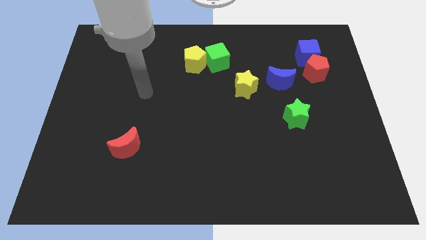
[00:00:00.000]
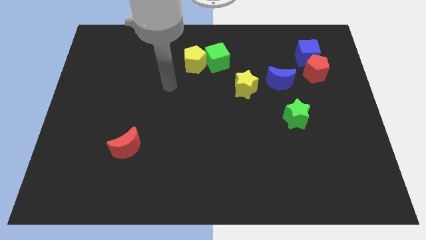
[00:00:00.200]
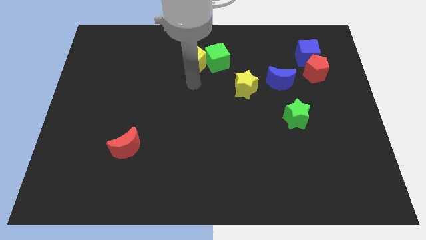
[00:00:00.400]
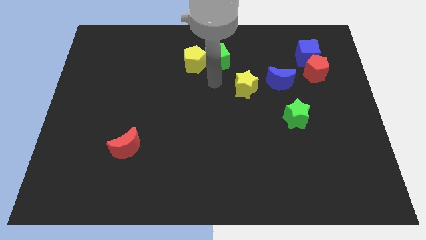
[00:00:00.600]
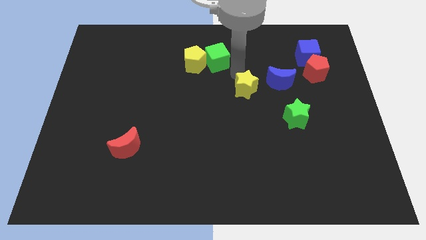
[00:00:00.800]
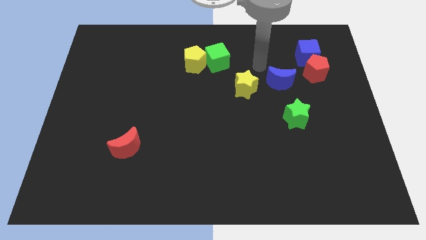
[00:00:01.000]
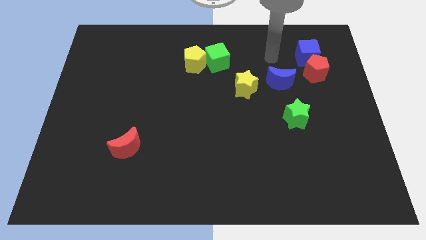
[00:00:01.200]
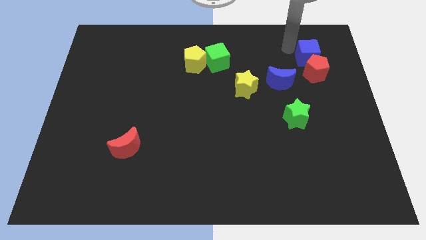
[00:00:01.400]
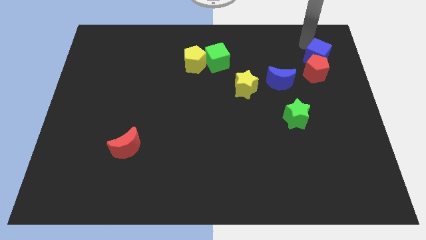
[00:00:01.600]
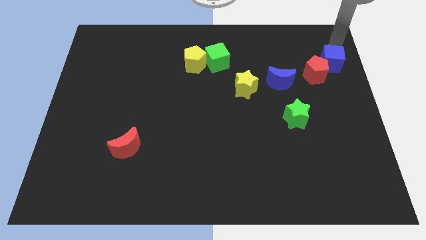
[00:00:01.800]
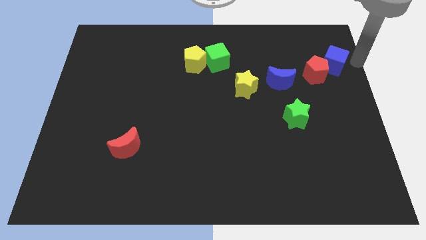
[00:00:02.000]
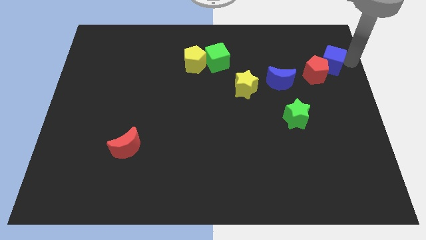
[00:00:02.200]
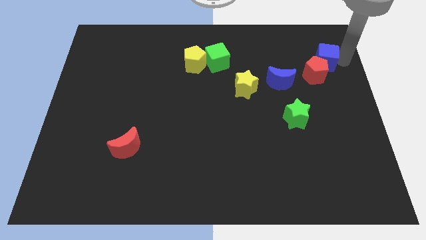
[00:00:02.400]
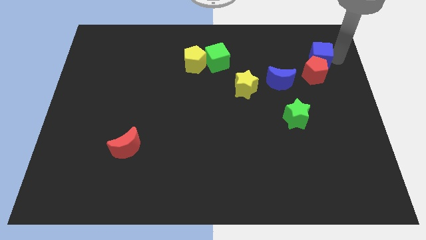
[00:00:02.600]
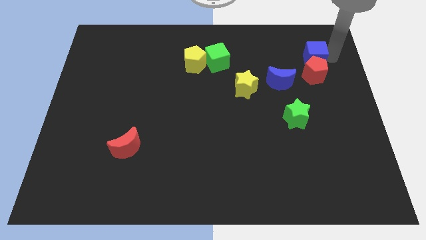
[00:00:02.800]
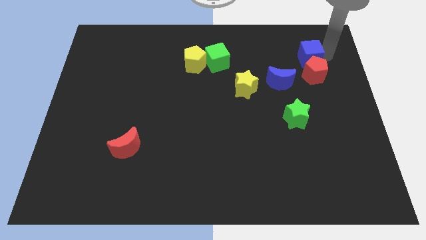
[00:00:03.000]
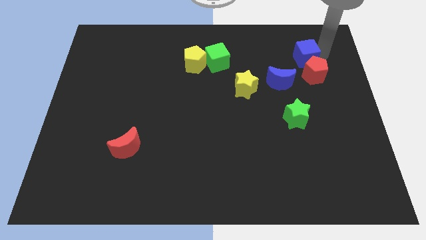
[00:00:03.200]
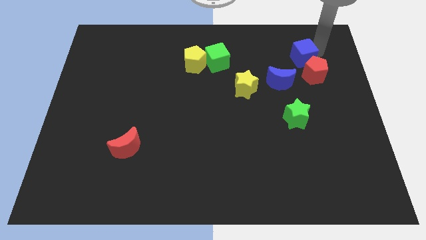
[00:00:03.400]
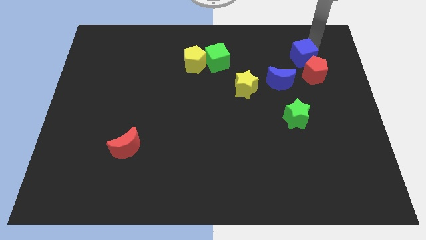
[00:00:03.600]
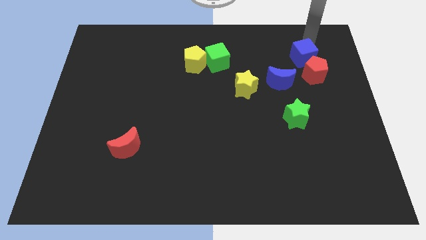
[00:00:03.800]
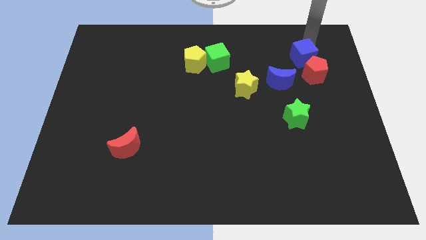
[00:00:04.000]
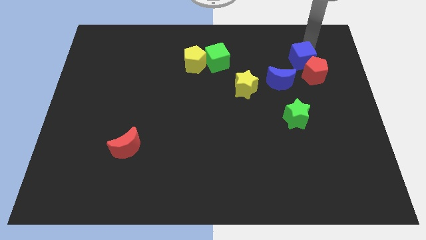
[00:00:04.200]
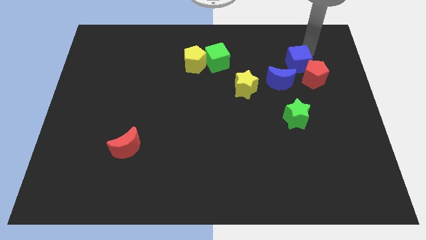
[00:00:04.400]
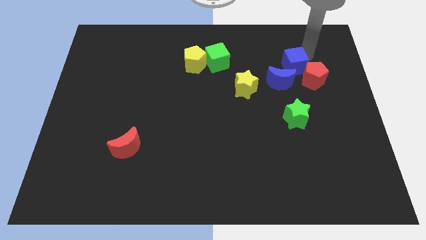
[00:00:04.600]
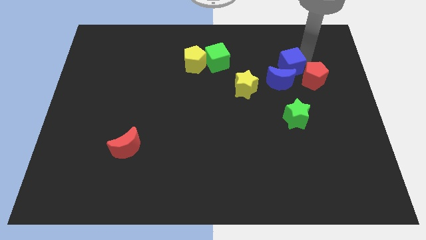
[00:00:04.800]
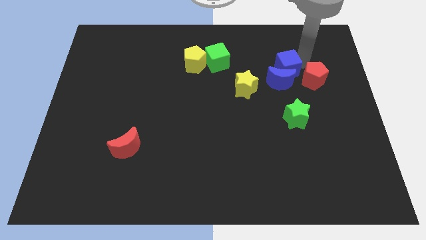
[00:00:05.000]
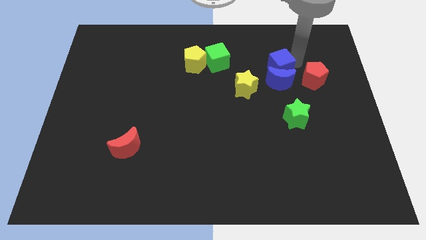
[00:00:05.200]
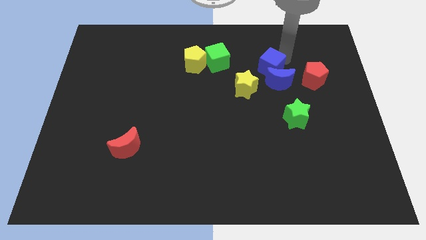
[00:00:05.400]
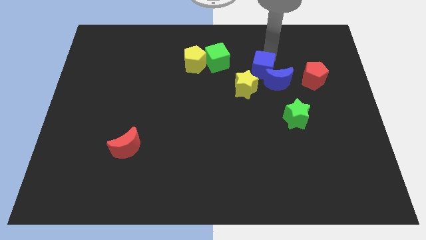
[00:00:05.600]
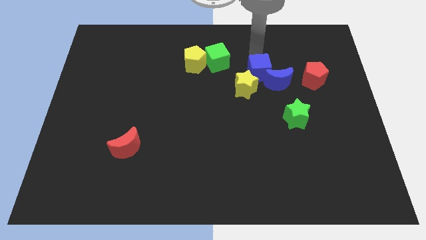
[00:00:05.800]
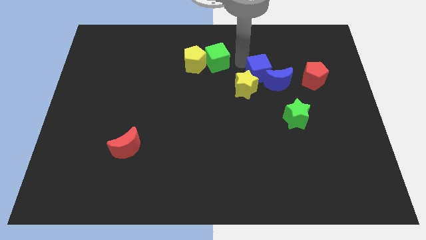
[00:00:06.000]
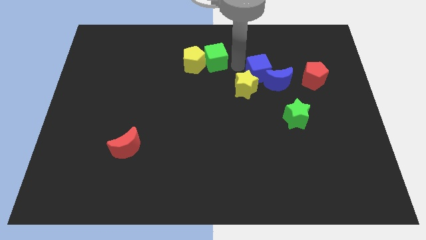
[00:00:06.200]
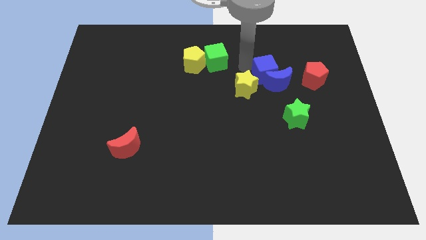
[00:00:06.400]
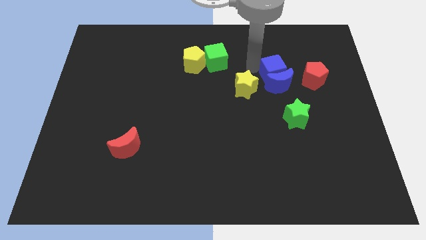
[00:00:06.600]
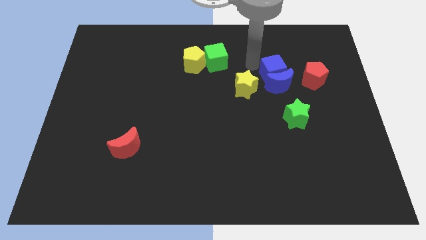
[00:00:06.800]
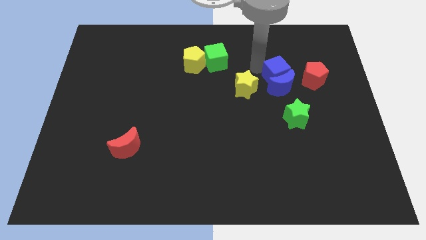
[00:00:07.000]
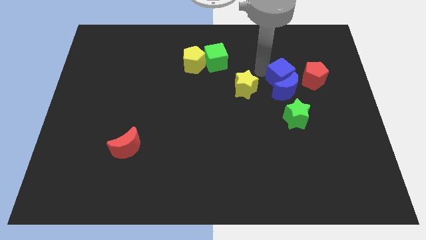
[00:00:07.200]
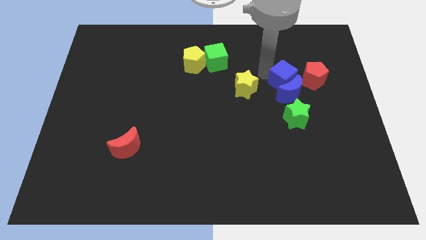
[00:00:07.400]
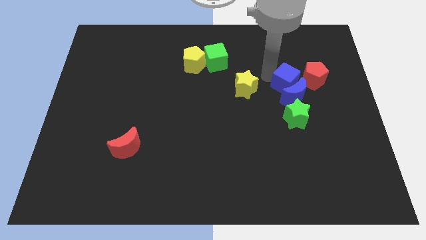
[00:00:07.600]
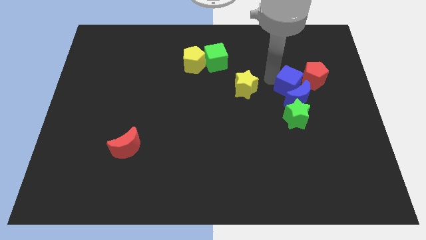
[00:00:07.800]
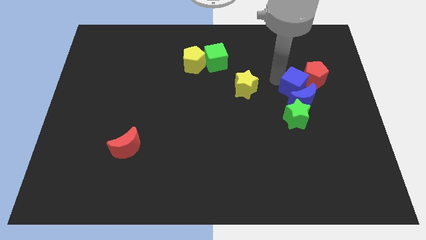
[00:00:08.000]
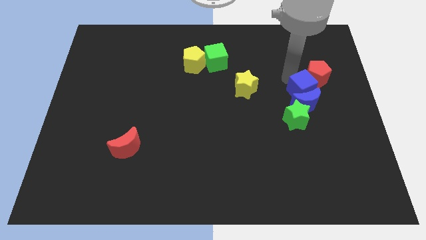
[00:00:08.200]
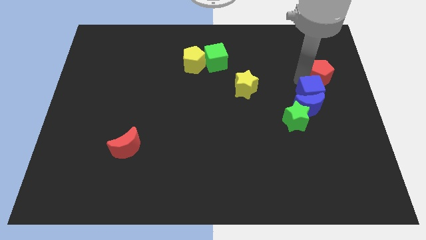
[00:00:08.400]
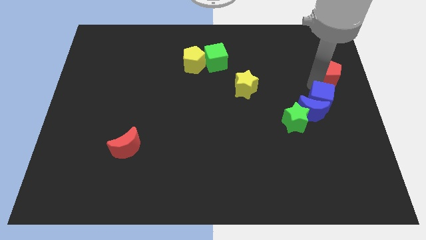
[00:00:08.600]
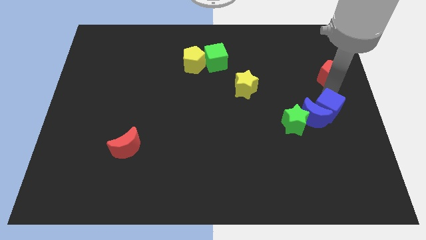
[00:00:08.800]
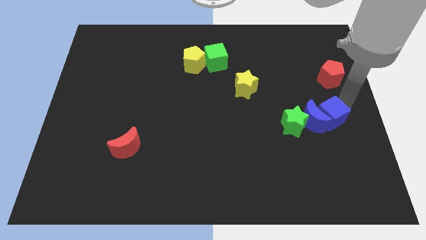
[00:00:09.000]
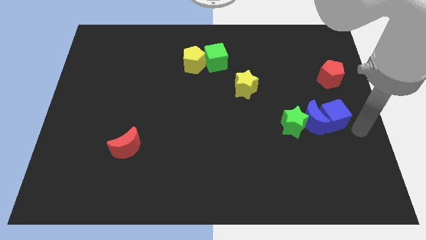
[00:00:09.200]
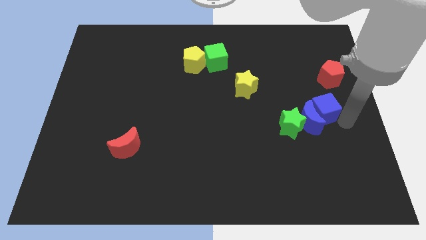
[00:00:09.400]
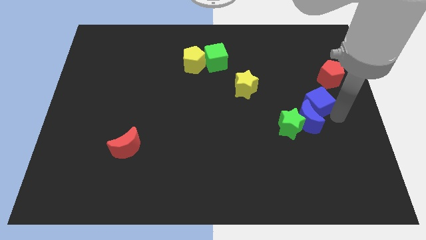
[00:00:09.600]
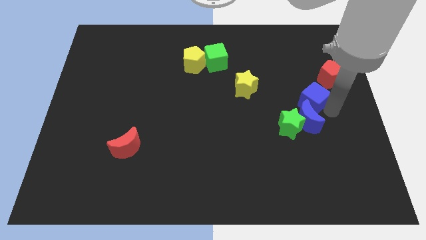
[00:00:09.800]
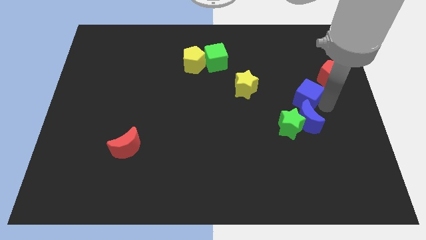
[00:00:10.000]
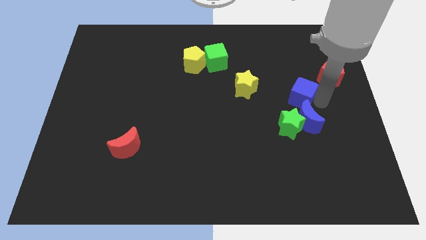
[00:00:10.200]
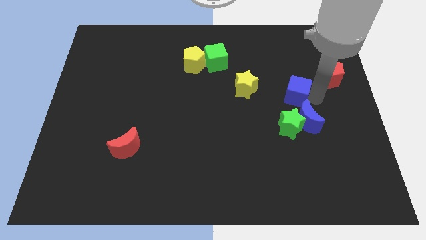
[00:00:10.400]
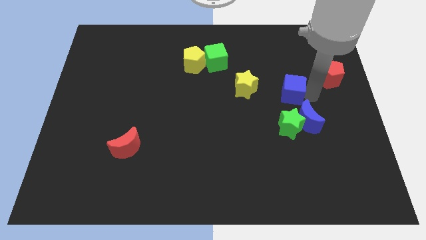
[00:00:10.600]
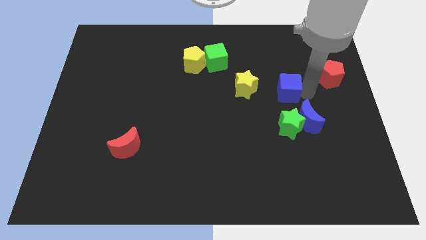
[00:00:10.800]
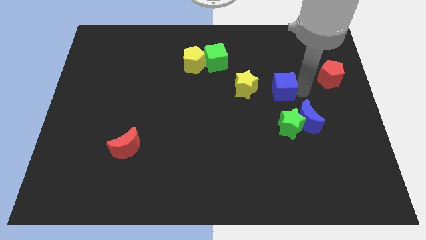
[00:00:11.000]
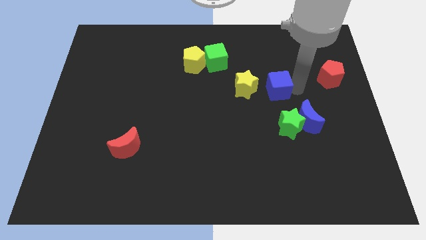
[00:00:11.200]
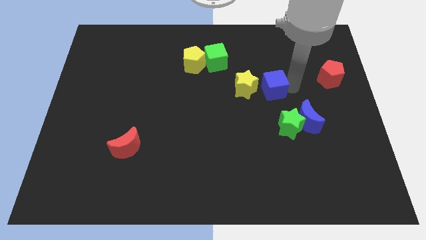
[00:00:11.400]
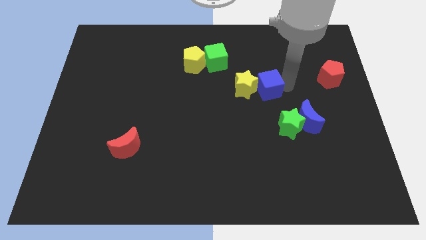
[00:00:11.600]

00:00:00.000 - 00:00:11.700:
slide the blue cube close to the yellow star

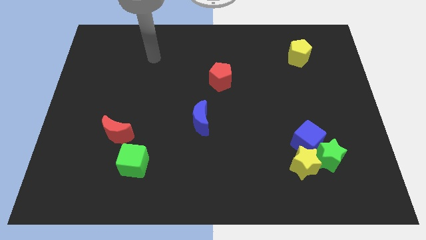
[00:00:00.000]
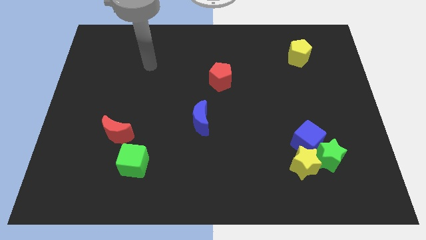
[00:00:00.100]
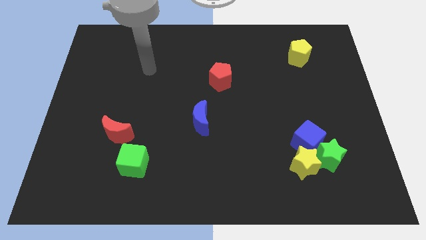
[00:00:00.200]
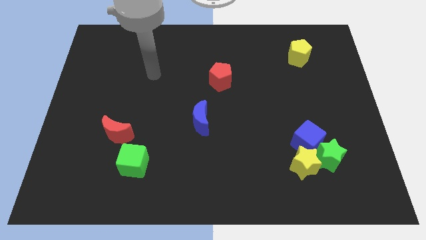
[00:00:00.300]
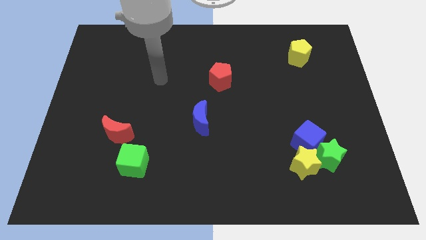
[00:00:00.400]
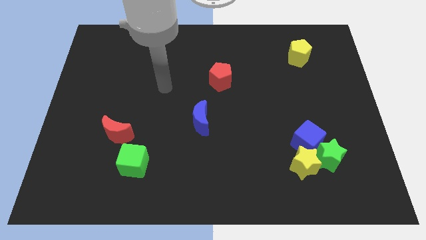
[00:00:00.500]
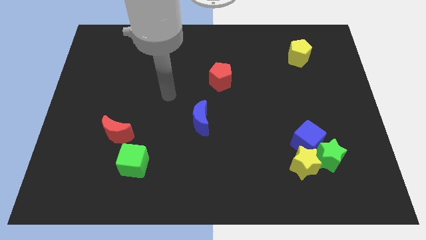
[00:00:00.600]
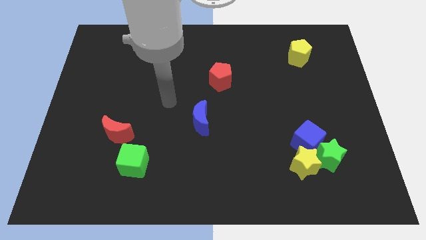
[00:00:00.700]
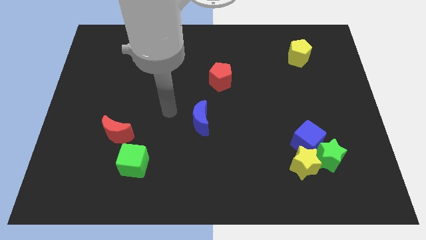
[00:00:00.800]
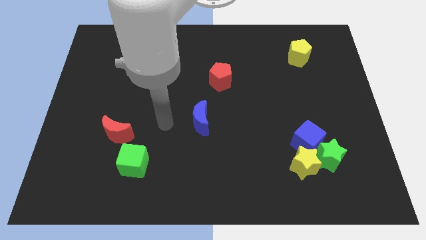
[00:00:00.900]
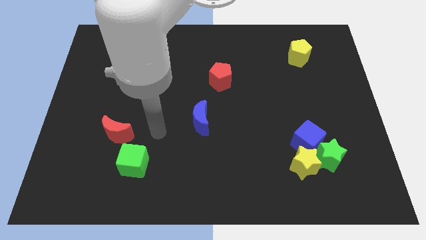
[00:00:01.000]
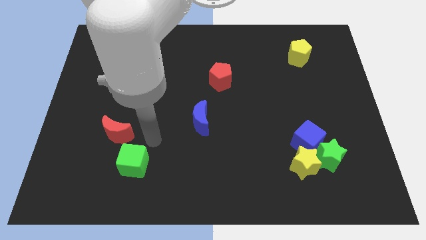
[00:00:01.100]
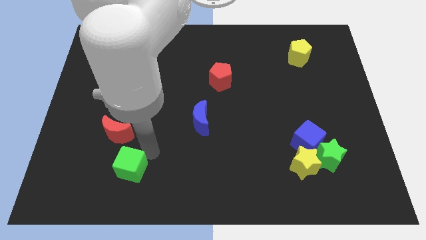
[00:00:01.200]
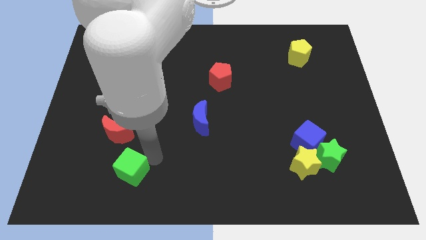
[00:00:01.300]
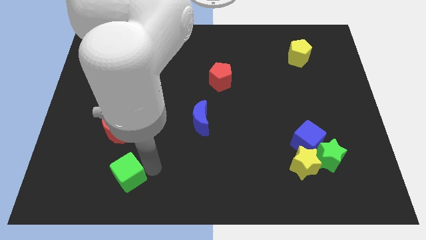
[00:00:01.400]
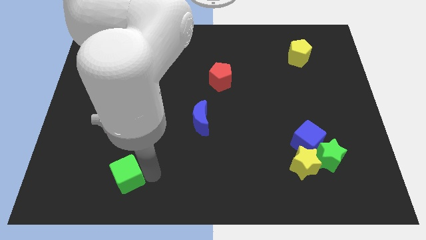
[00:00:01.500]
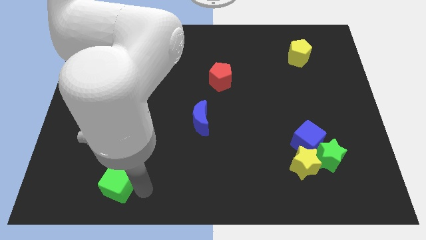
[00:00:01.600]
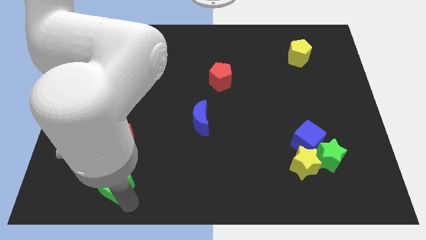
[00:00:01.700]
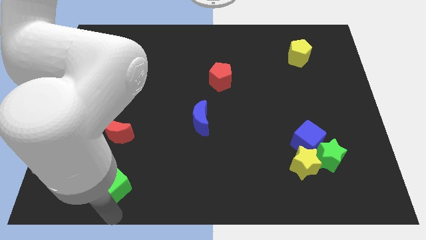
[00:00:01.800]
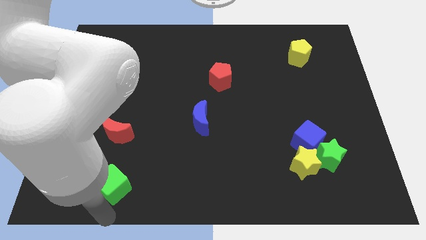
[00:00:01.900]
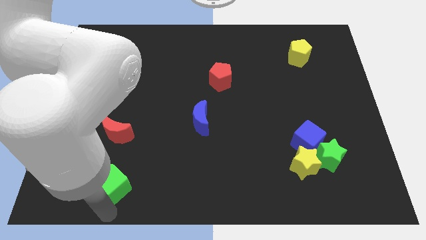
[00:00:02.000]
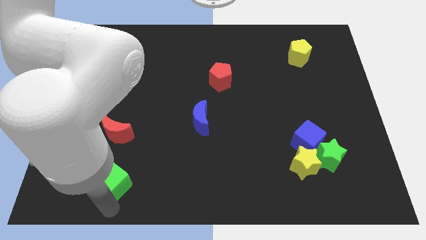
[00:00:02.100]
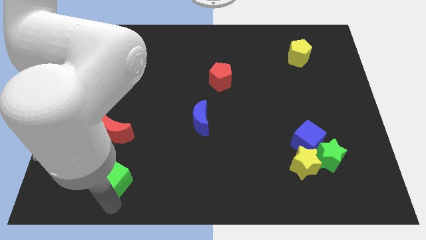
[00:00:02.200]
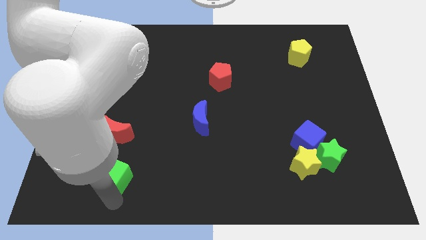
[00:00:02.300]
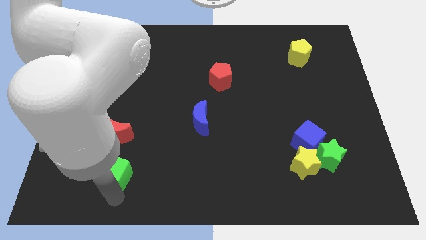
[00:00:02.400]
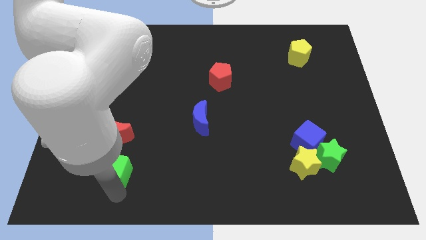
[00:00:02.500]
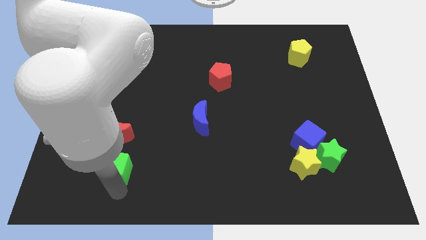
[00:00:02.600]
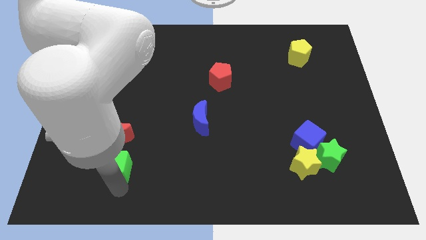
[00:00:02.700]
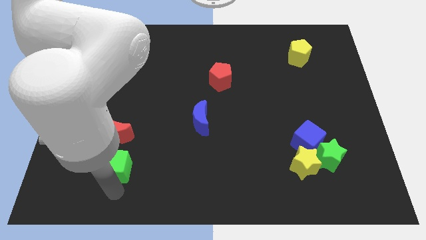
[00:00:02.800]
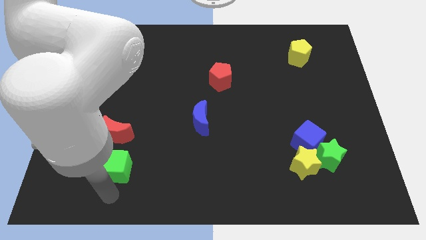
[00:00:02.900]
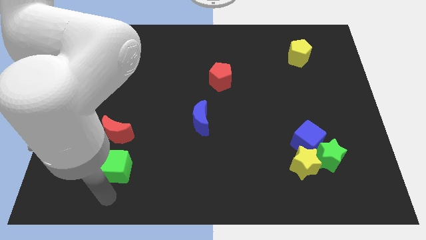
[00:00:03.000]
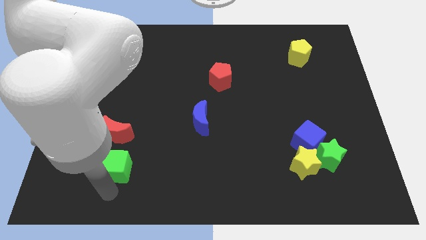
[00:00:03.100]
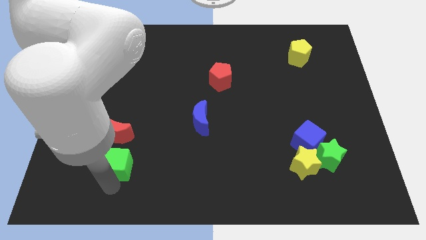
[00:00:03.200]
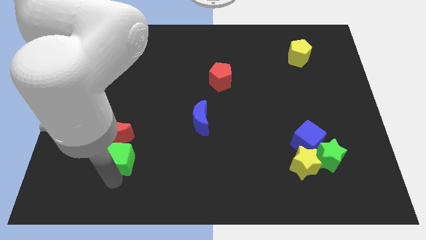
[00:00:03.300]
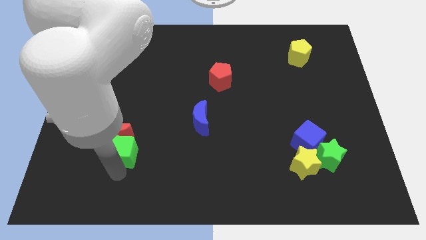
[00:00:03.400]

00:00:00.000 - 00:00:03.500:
put the green cube close to the red moon
